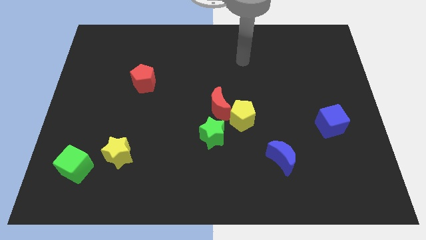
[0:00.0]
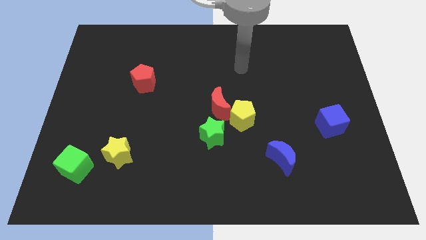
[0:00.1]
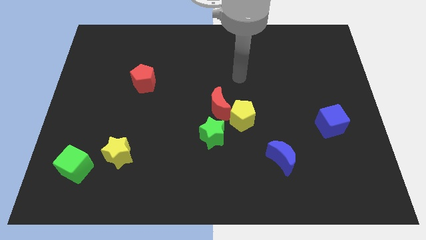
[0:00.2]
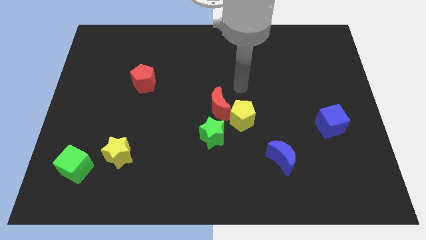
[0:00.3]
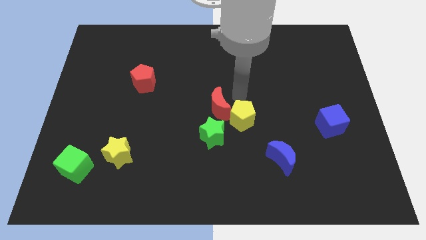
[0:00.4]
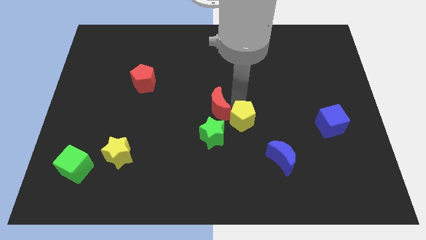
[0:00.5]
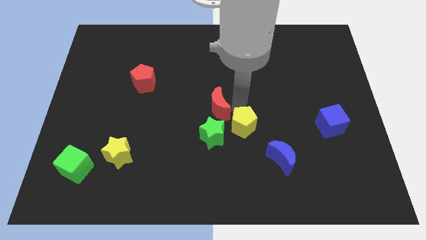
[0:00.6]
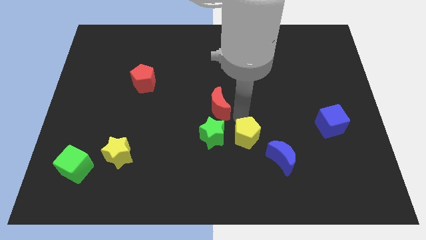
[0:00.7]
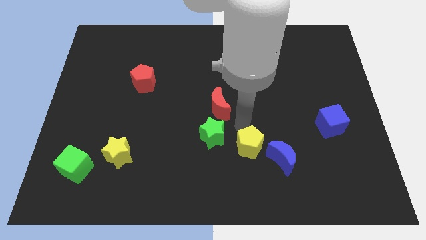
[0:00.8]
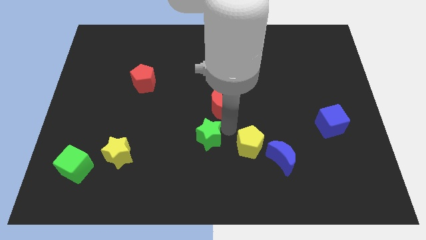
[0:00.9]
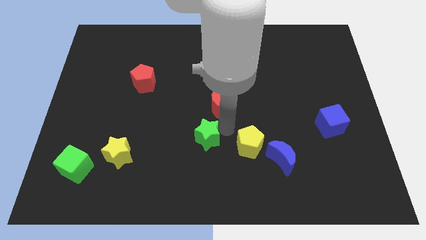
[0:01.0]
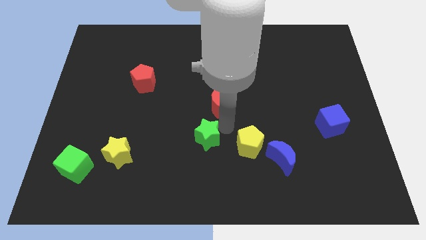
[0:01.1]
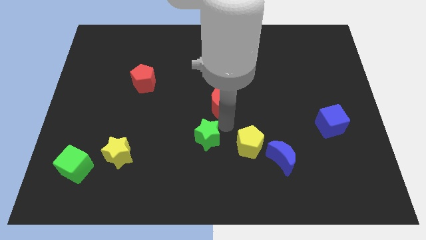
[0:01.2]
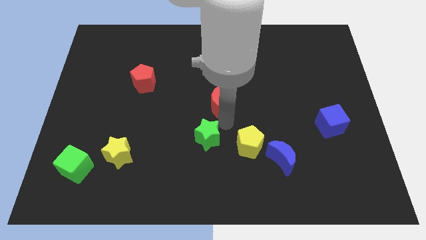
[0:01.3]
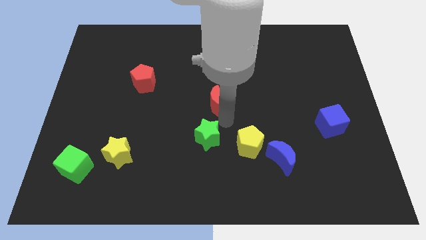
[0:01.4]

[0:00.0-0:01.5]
separate the red moon from the yellow pentagon and green star

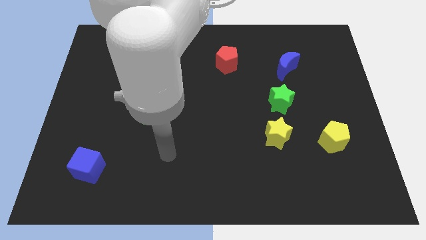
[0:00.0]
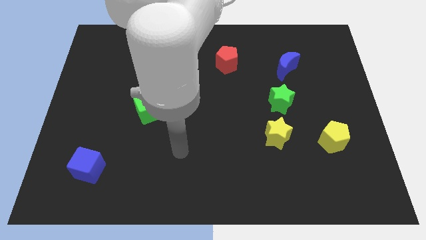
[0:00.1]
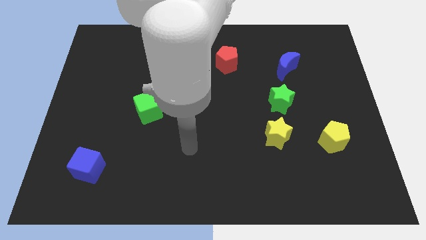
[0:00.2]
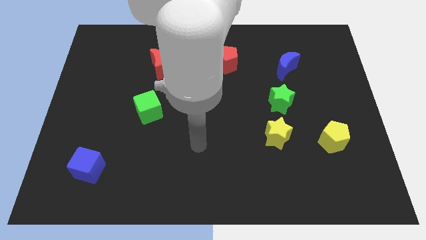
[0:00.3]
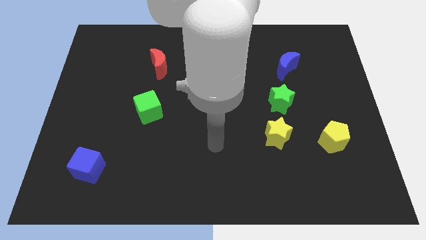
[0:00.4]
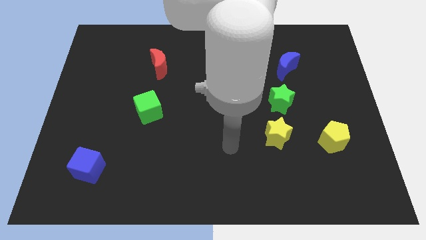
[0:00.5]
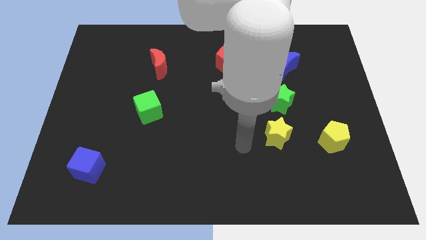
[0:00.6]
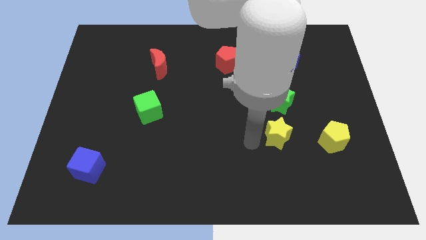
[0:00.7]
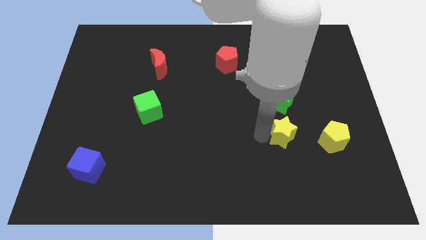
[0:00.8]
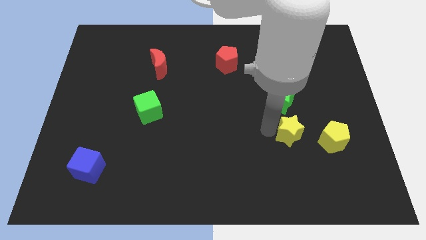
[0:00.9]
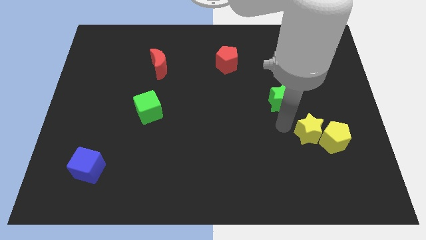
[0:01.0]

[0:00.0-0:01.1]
move the green star away from the yellow star

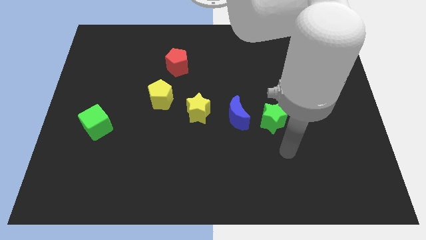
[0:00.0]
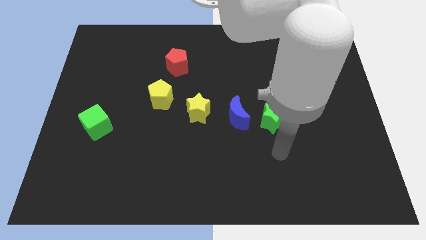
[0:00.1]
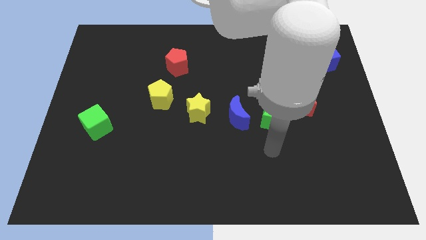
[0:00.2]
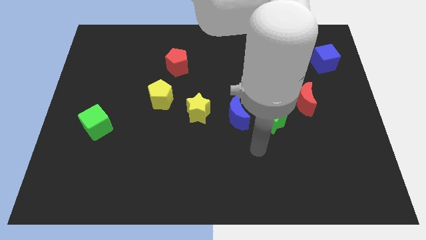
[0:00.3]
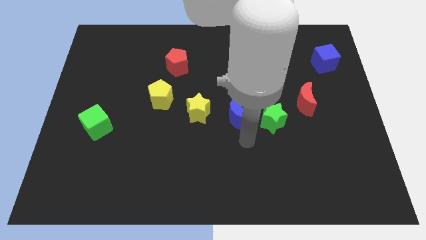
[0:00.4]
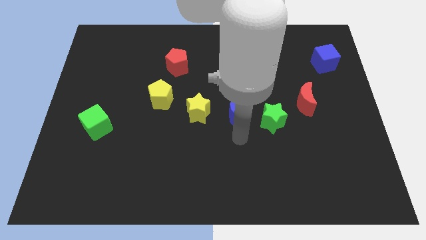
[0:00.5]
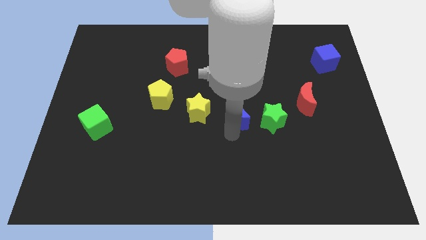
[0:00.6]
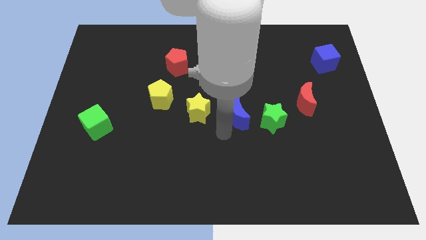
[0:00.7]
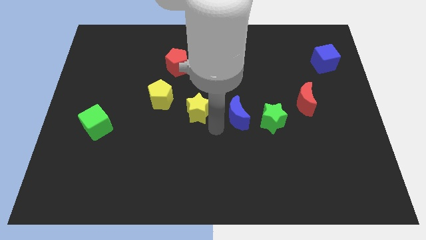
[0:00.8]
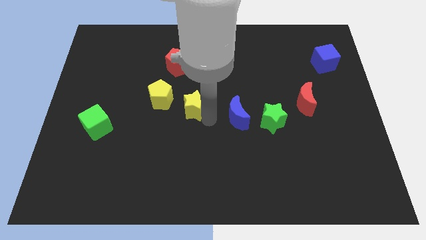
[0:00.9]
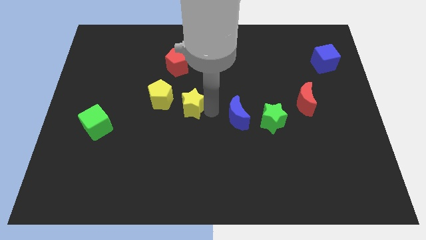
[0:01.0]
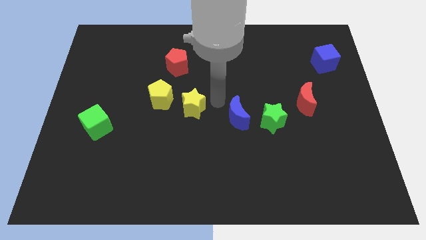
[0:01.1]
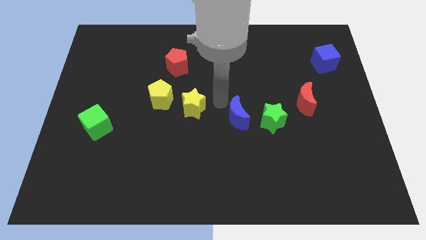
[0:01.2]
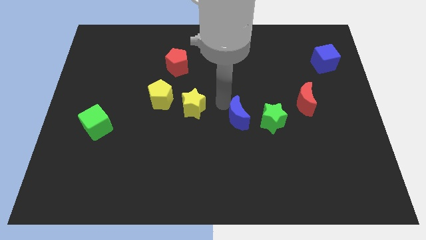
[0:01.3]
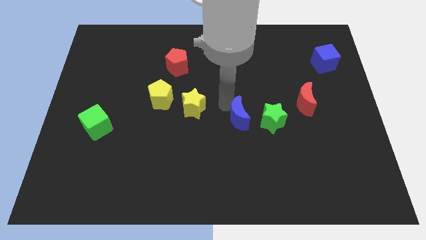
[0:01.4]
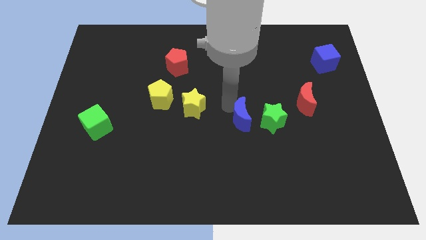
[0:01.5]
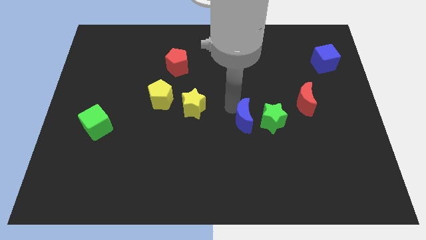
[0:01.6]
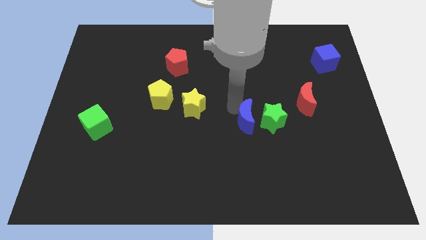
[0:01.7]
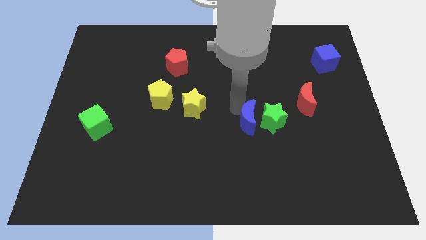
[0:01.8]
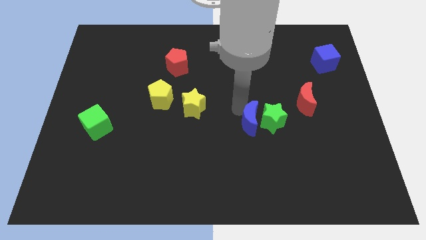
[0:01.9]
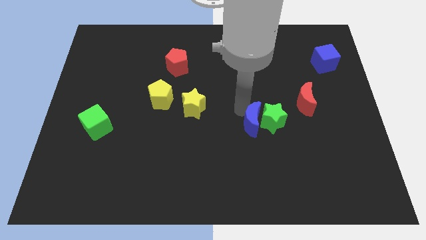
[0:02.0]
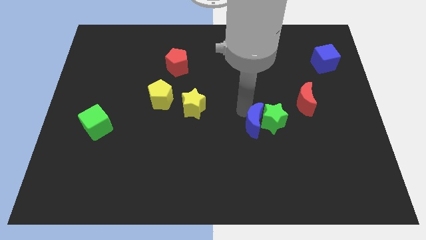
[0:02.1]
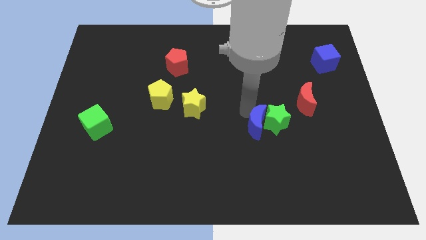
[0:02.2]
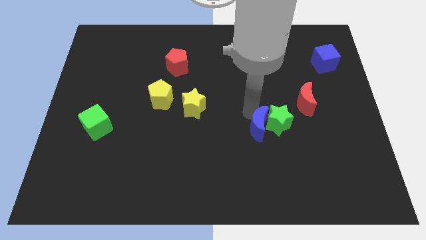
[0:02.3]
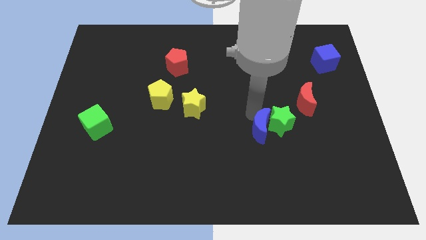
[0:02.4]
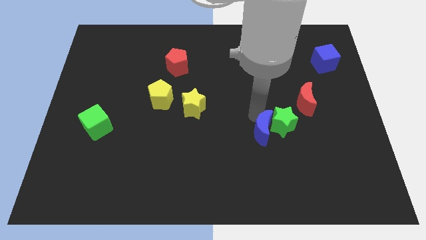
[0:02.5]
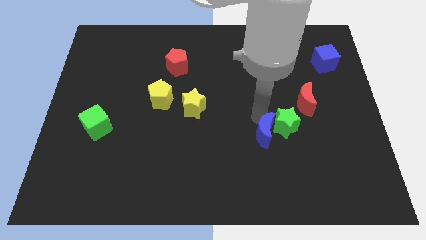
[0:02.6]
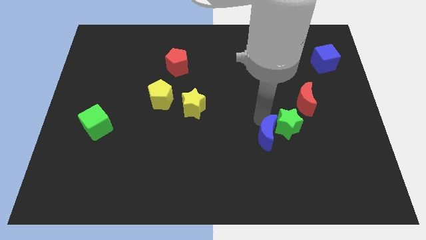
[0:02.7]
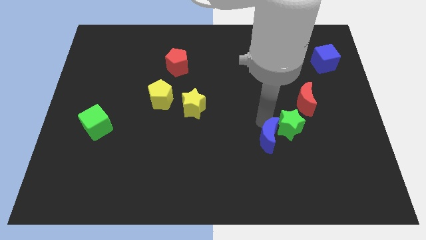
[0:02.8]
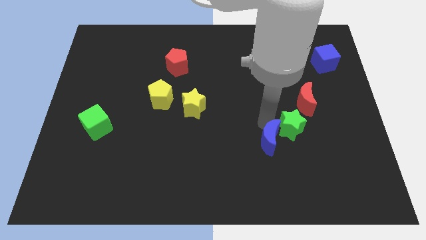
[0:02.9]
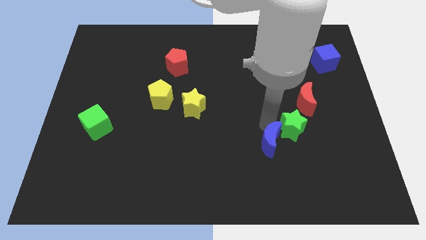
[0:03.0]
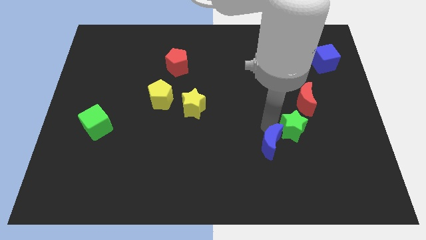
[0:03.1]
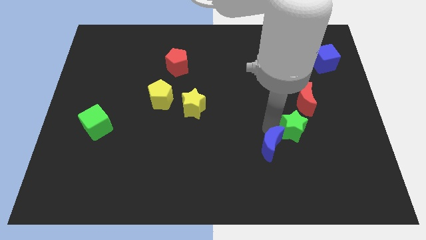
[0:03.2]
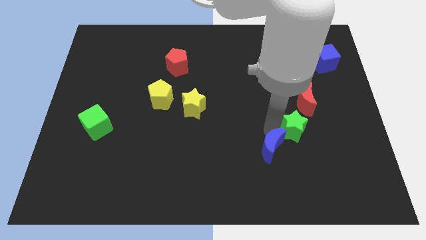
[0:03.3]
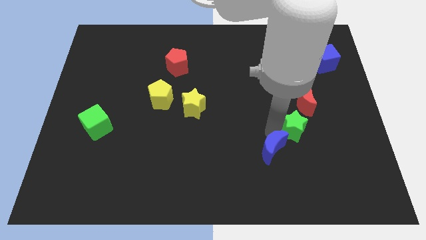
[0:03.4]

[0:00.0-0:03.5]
move the blue moon away from the green star and yellow star

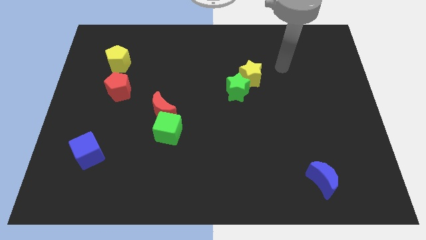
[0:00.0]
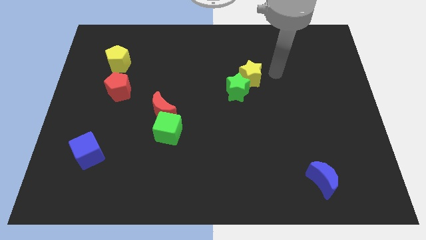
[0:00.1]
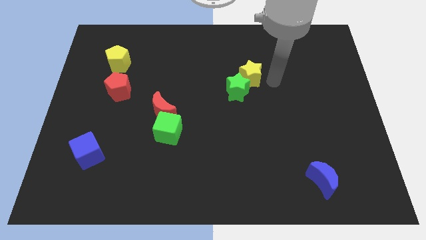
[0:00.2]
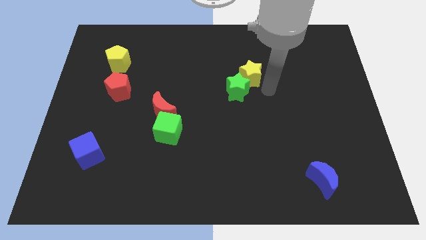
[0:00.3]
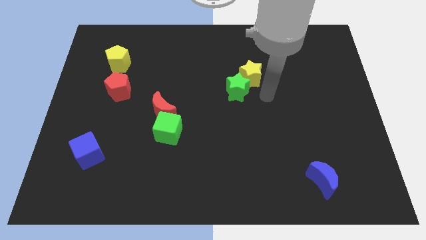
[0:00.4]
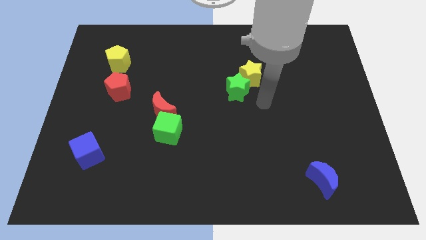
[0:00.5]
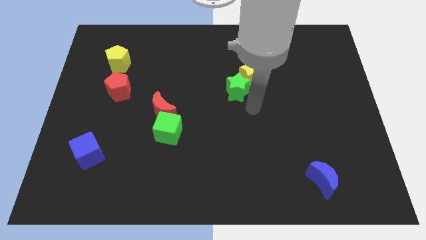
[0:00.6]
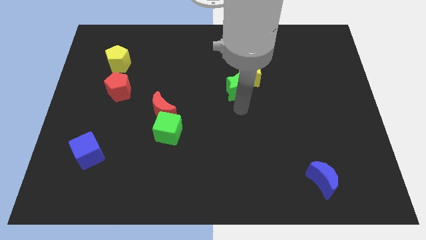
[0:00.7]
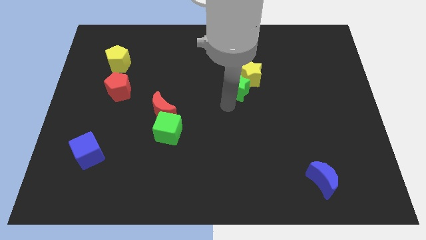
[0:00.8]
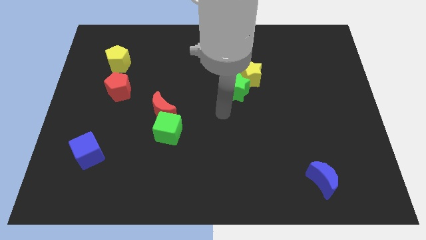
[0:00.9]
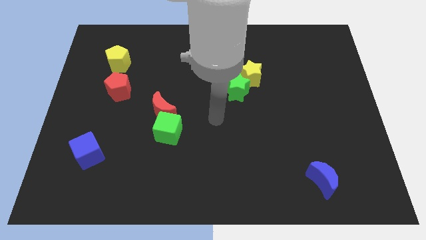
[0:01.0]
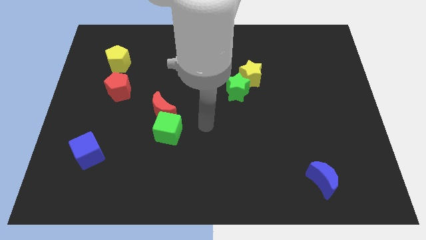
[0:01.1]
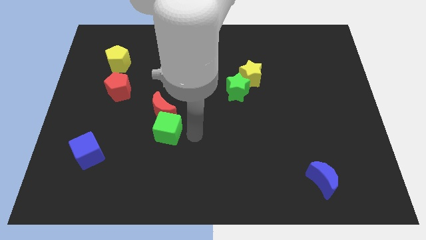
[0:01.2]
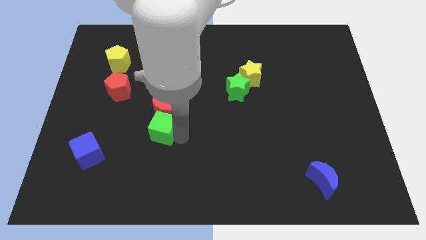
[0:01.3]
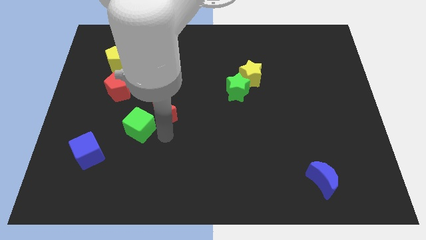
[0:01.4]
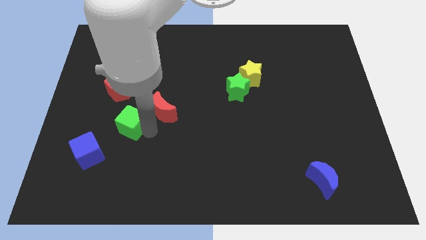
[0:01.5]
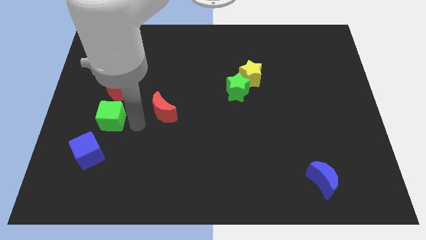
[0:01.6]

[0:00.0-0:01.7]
separate the red moon from the green cube

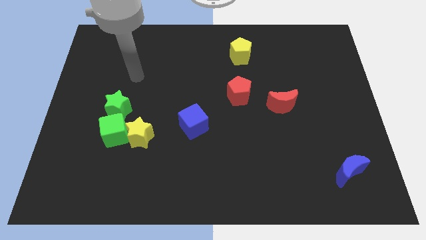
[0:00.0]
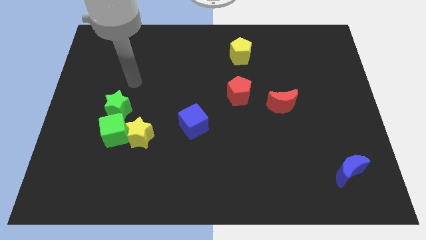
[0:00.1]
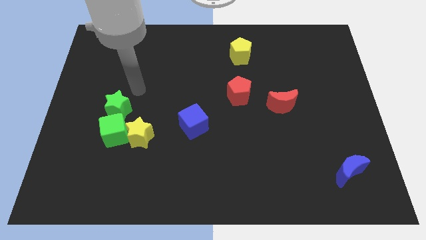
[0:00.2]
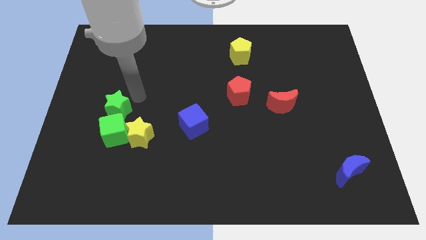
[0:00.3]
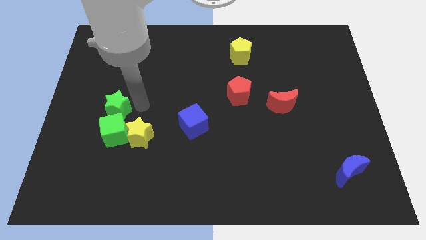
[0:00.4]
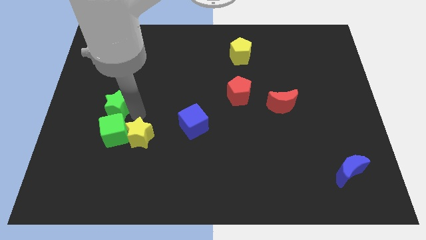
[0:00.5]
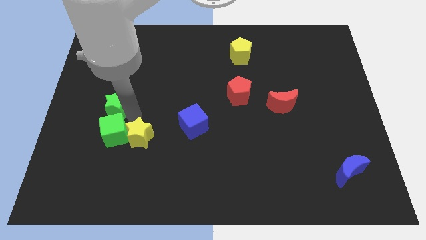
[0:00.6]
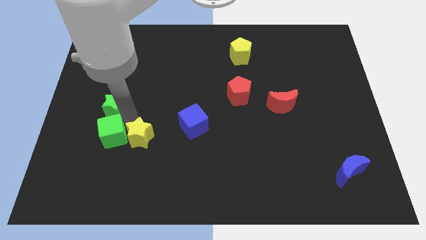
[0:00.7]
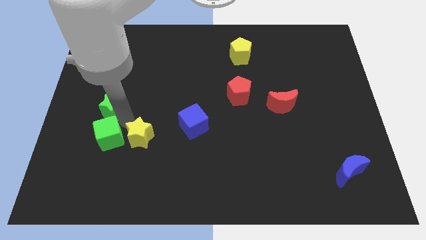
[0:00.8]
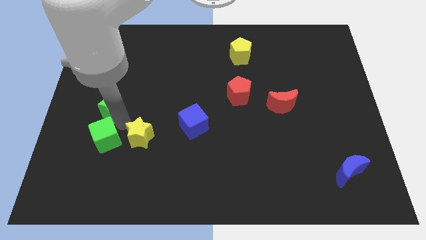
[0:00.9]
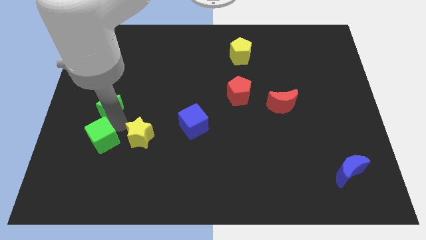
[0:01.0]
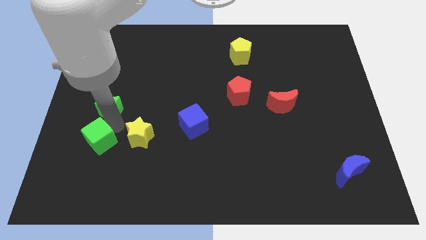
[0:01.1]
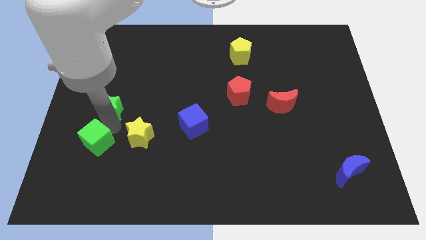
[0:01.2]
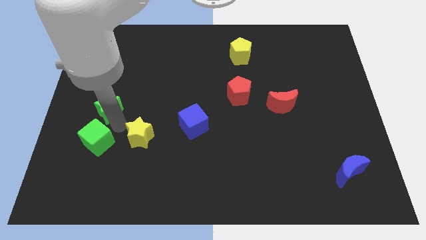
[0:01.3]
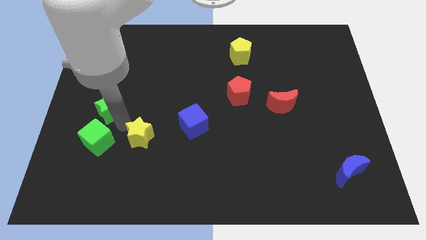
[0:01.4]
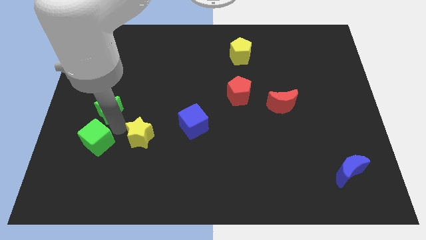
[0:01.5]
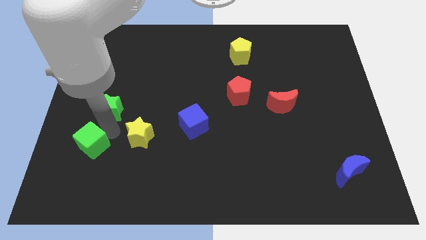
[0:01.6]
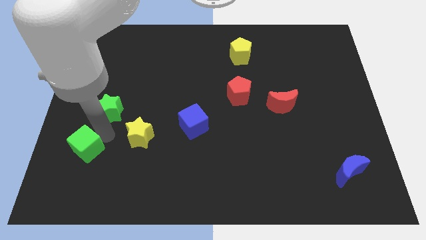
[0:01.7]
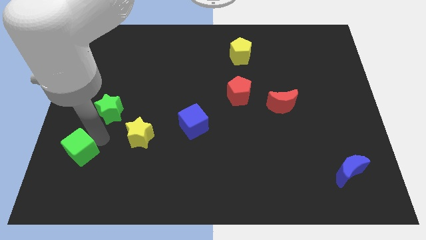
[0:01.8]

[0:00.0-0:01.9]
separate the green cube from the yellow star and green star
